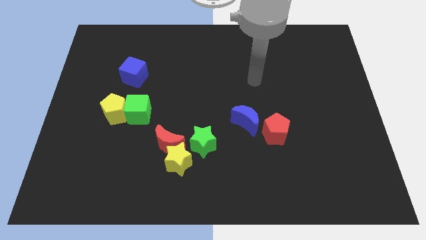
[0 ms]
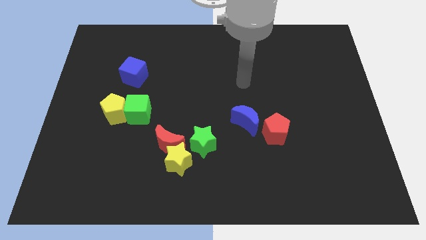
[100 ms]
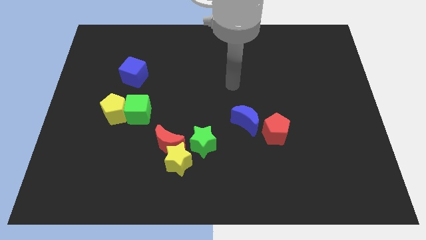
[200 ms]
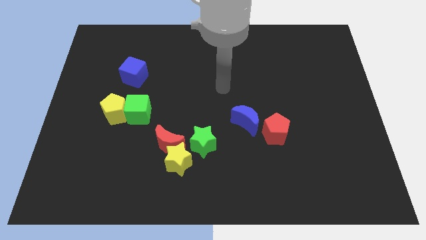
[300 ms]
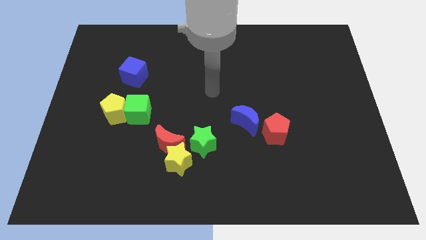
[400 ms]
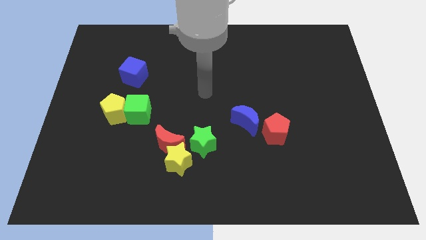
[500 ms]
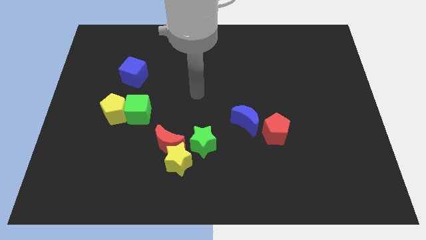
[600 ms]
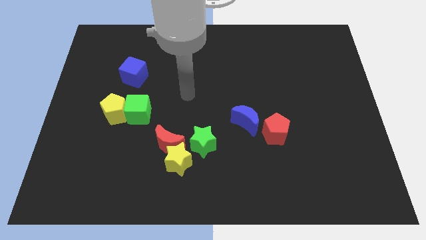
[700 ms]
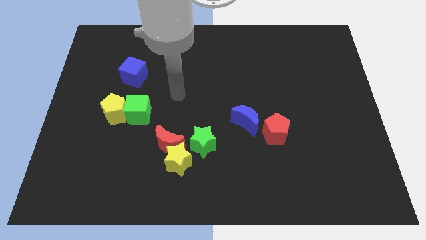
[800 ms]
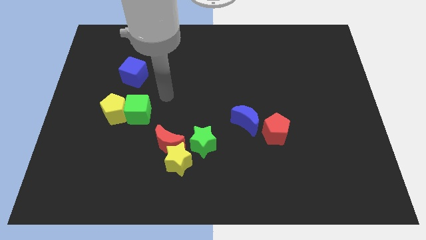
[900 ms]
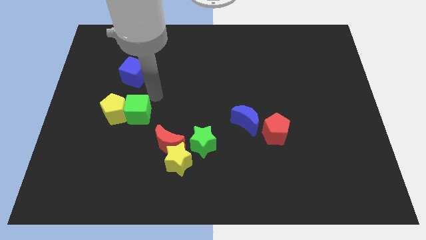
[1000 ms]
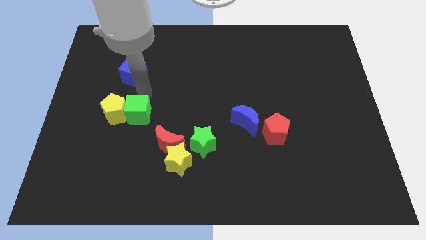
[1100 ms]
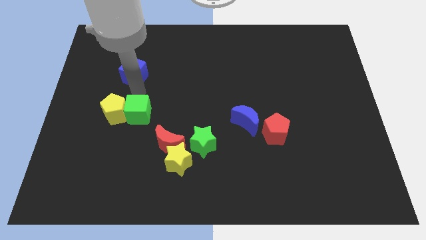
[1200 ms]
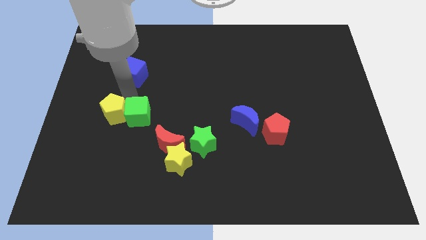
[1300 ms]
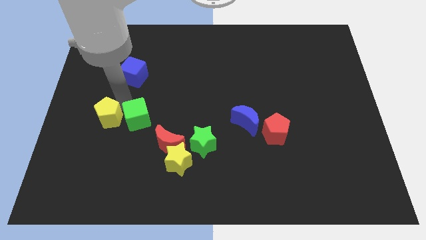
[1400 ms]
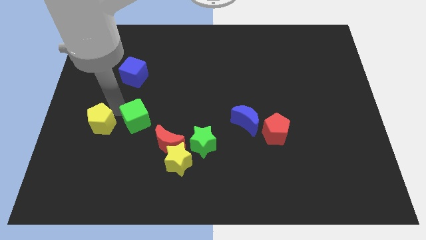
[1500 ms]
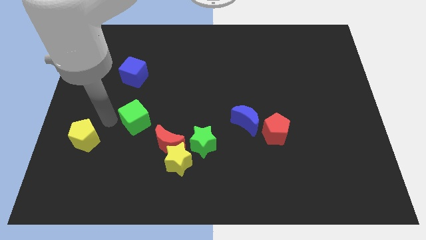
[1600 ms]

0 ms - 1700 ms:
pull the green cube apart from the yellow pentagon

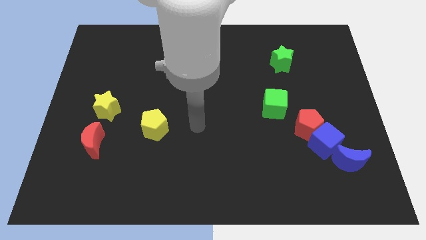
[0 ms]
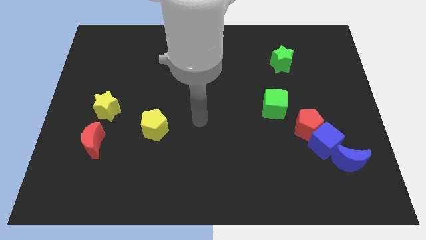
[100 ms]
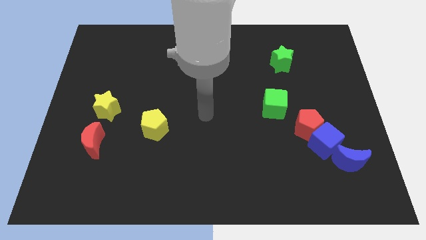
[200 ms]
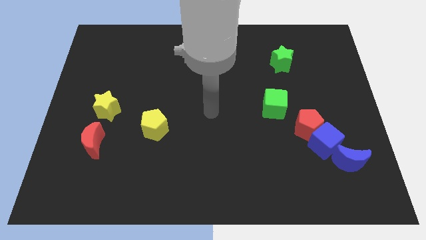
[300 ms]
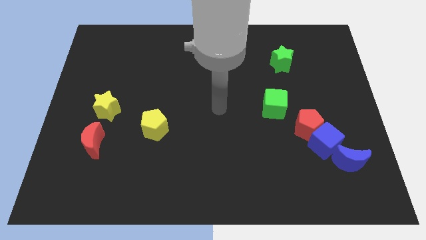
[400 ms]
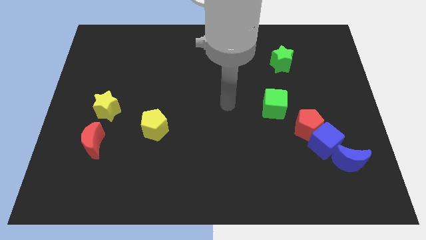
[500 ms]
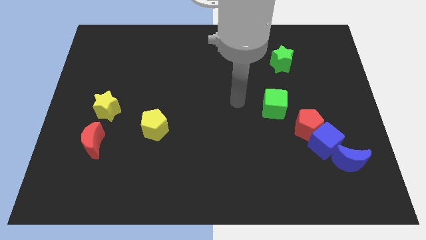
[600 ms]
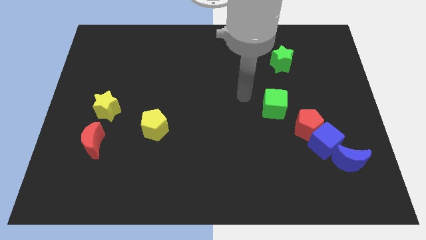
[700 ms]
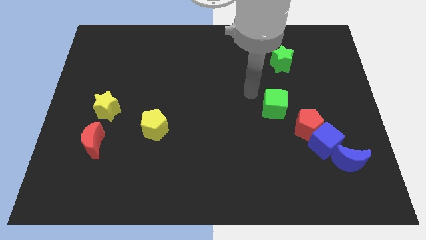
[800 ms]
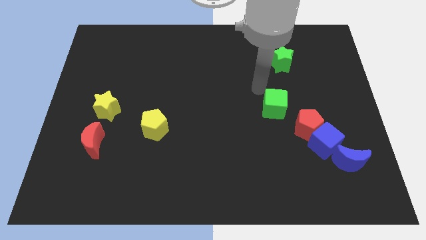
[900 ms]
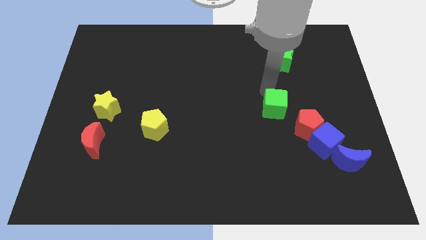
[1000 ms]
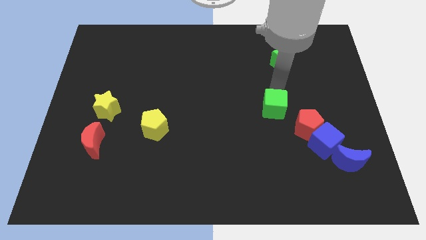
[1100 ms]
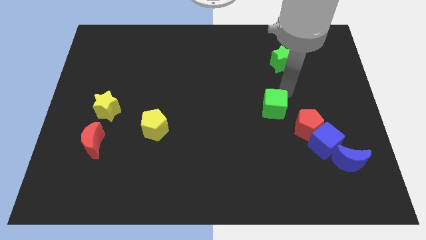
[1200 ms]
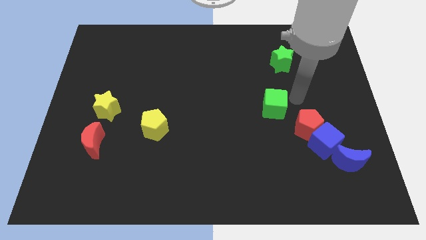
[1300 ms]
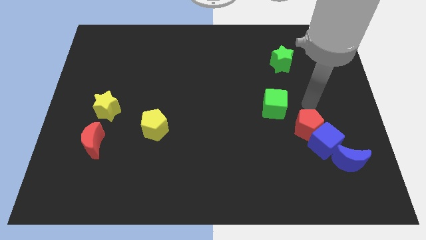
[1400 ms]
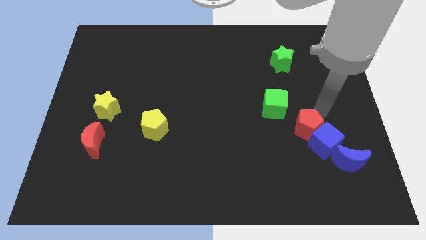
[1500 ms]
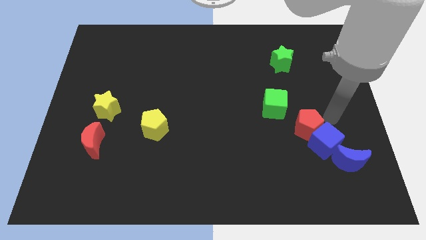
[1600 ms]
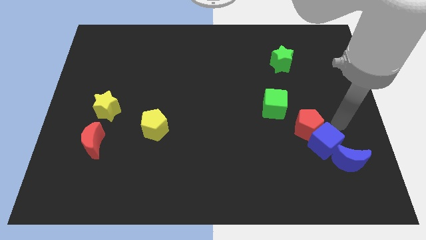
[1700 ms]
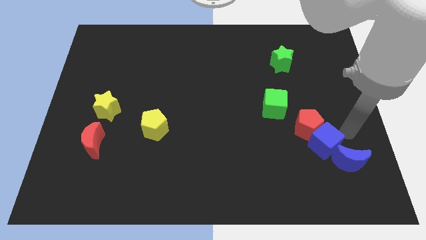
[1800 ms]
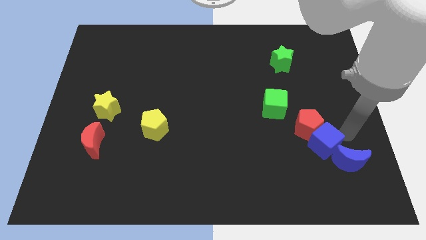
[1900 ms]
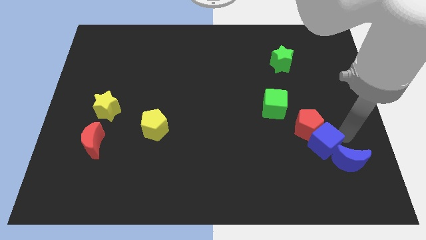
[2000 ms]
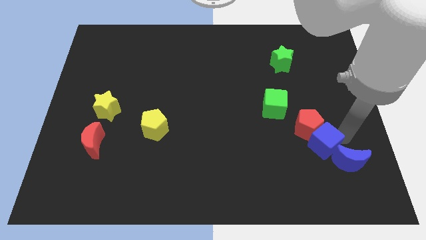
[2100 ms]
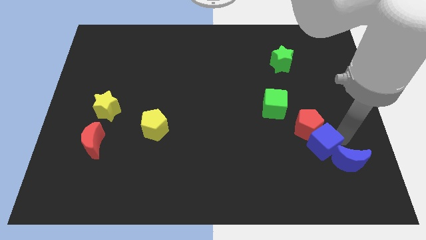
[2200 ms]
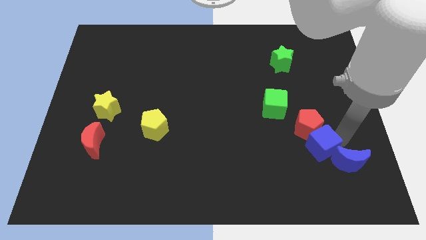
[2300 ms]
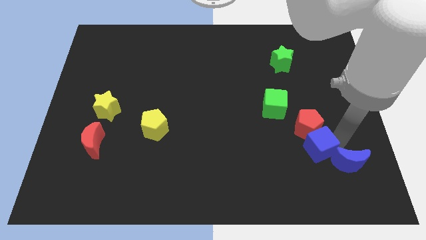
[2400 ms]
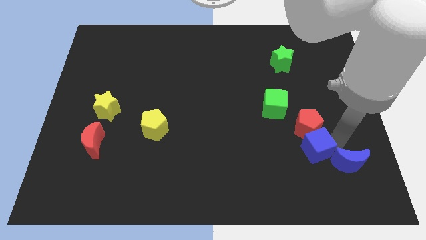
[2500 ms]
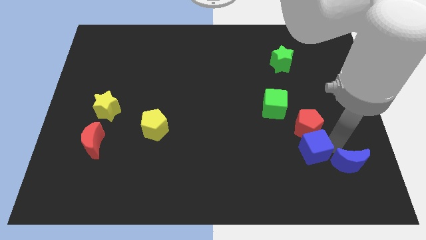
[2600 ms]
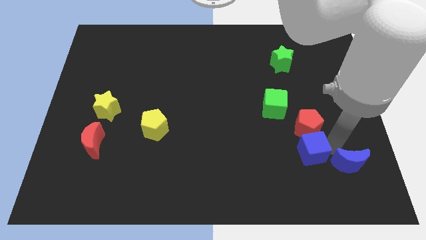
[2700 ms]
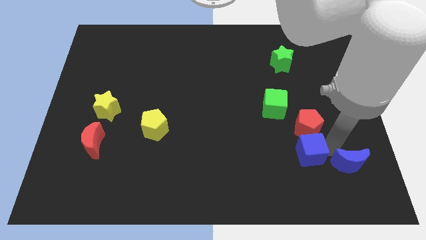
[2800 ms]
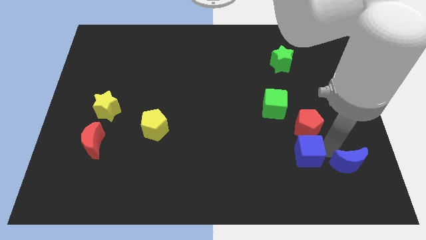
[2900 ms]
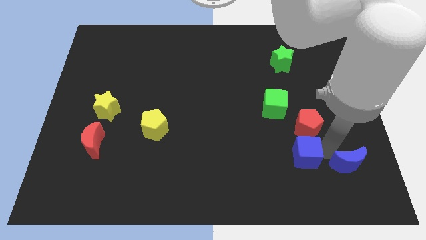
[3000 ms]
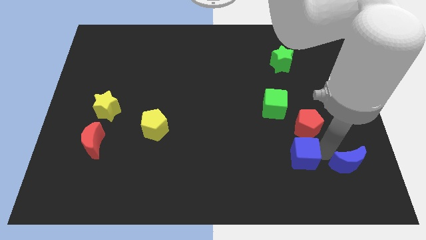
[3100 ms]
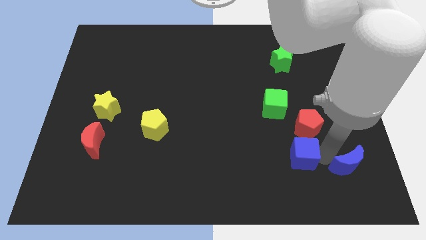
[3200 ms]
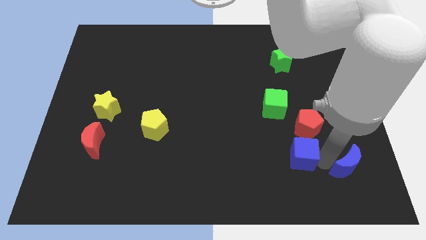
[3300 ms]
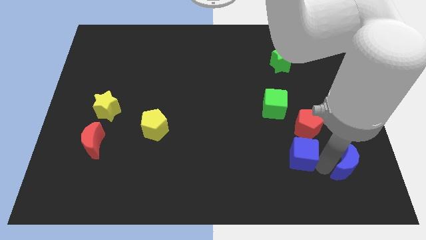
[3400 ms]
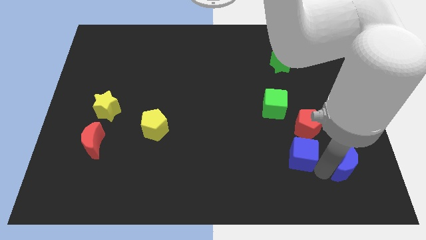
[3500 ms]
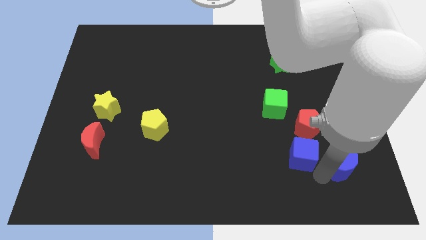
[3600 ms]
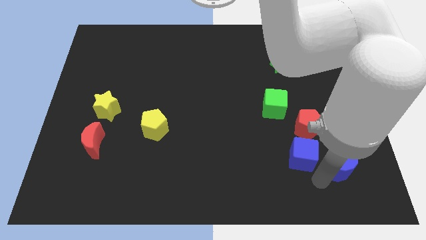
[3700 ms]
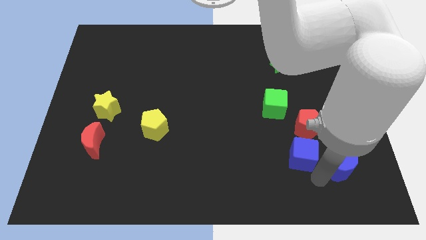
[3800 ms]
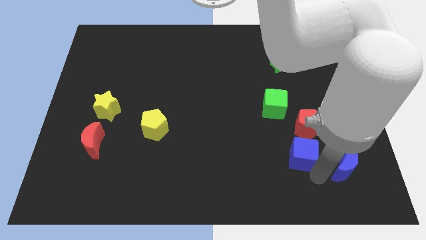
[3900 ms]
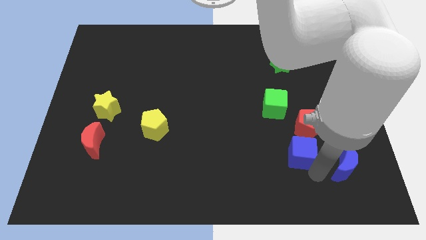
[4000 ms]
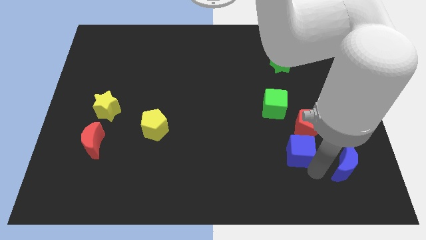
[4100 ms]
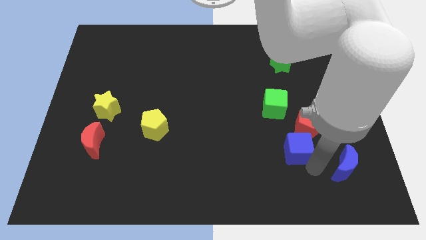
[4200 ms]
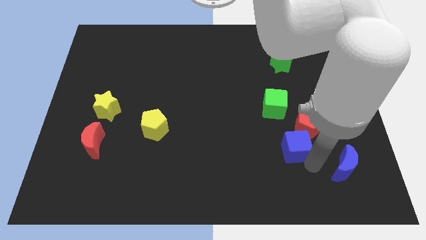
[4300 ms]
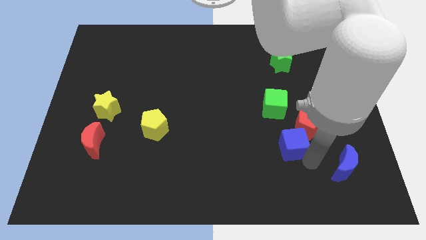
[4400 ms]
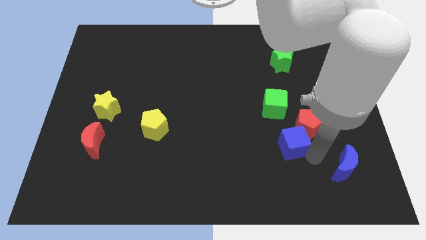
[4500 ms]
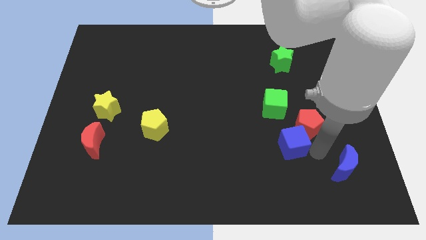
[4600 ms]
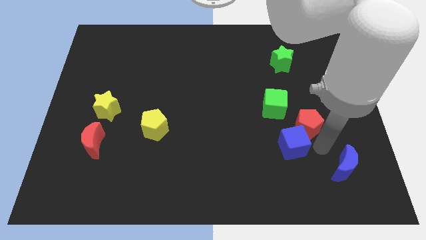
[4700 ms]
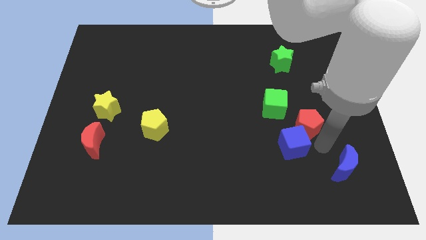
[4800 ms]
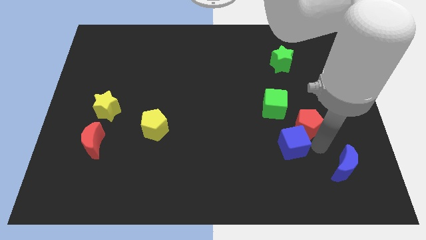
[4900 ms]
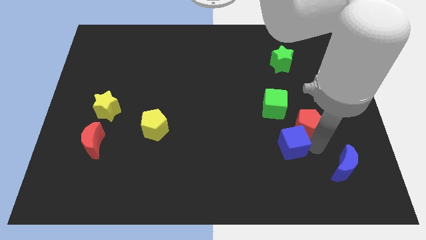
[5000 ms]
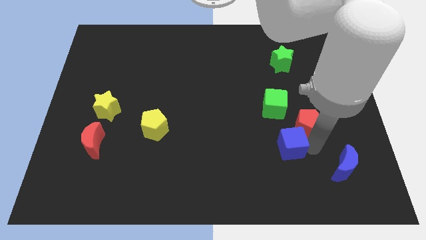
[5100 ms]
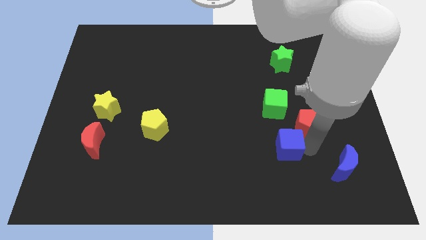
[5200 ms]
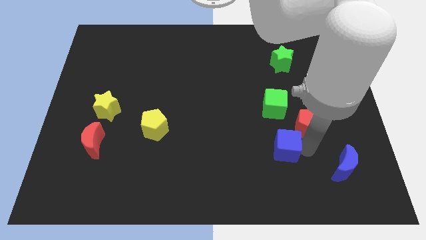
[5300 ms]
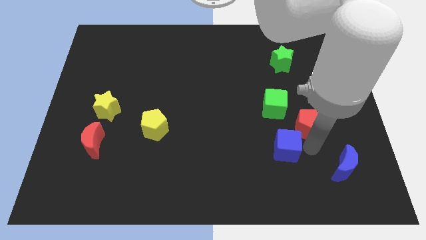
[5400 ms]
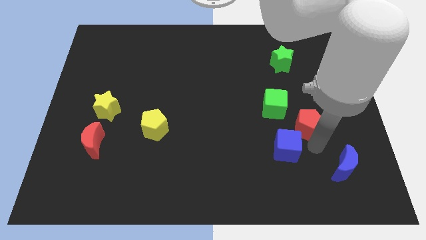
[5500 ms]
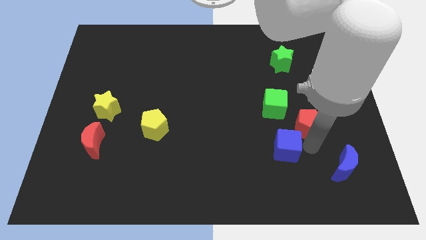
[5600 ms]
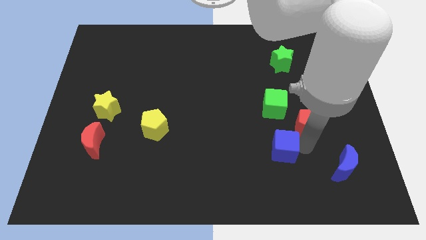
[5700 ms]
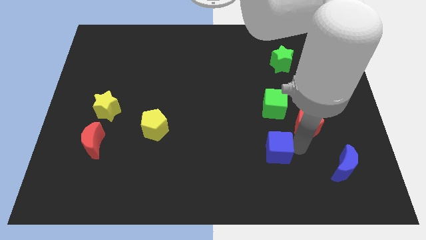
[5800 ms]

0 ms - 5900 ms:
move the blue cube away from the red pentagon and blue moon

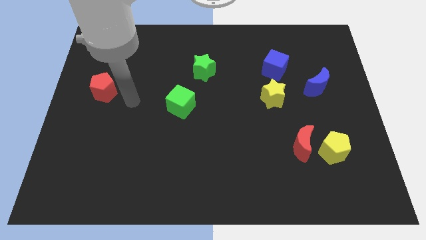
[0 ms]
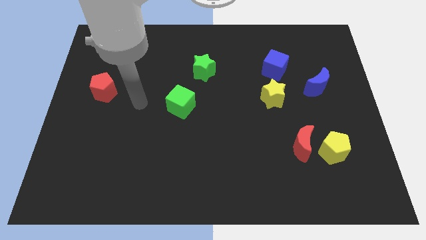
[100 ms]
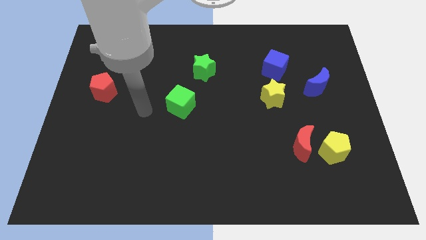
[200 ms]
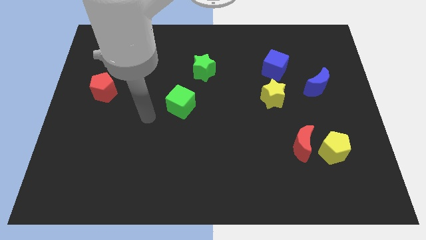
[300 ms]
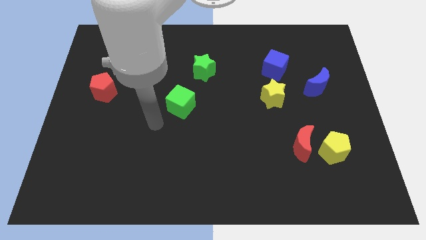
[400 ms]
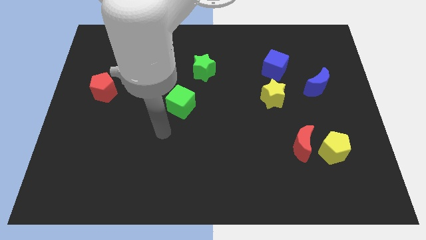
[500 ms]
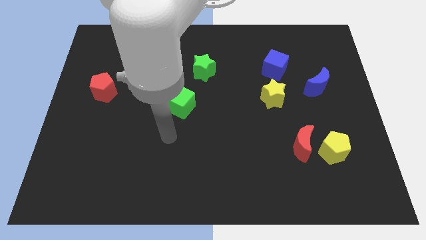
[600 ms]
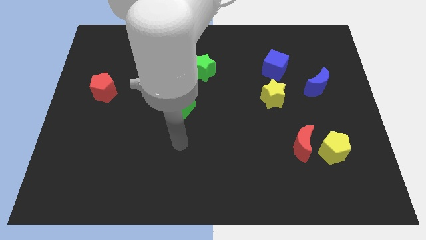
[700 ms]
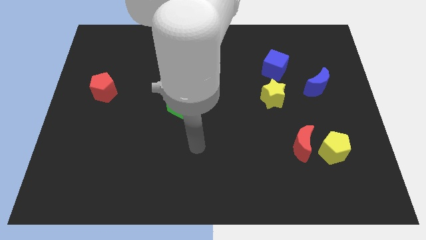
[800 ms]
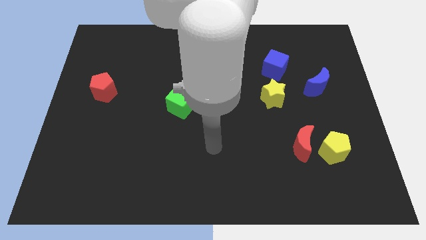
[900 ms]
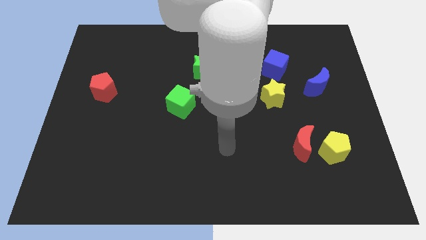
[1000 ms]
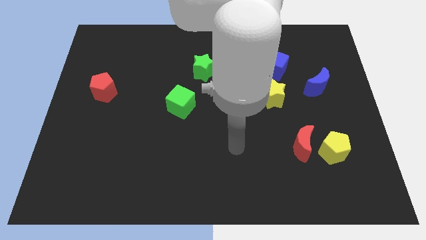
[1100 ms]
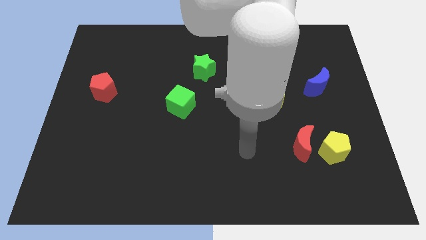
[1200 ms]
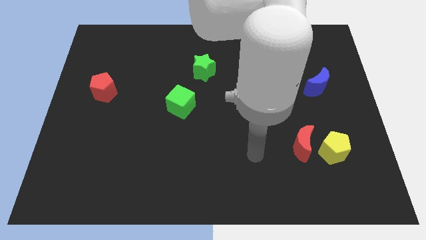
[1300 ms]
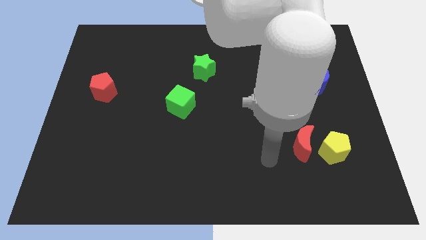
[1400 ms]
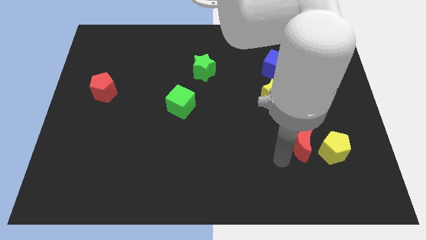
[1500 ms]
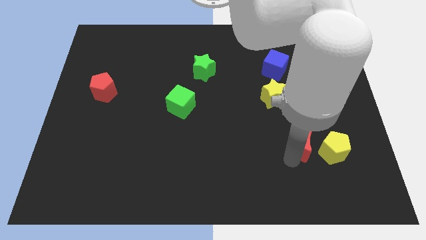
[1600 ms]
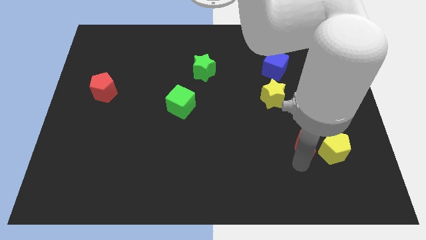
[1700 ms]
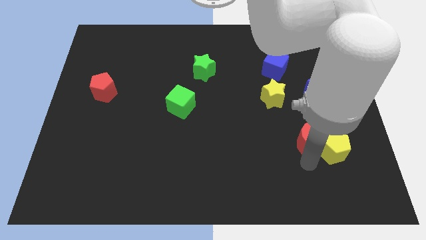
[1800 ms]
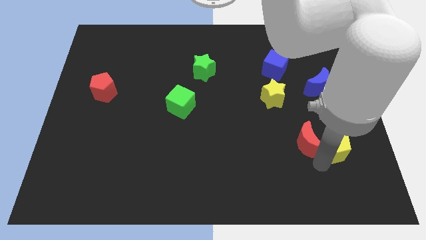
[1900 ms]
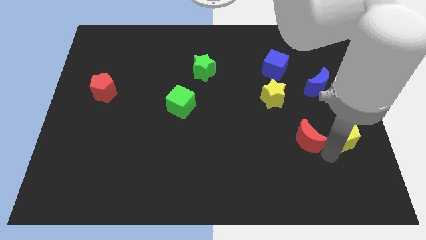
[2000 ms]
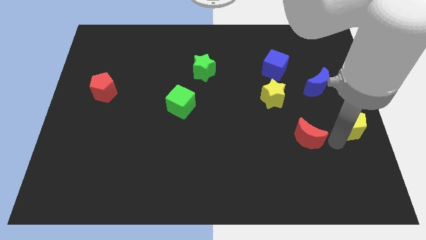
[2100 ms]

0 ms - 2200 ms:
pull the red moon apart from the yellow pentagon
